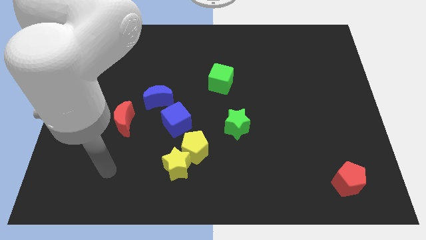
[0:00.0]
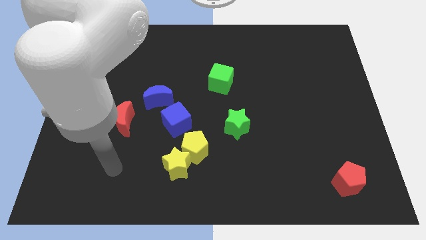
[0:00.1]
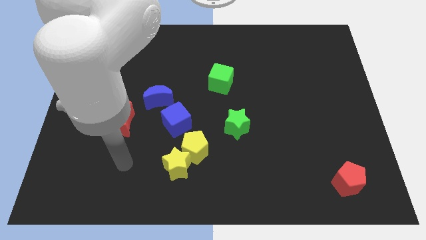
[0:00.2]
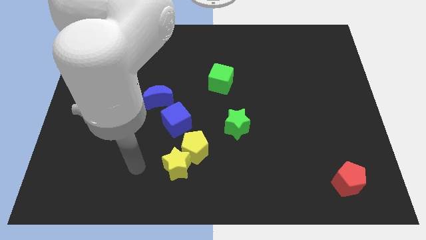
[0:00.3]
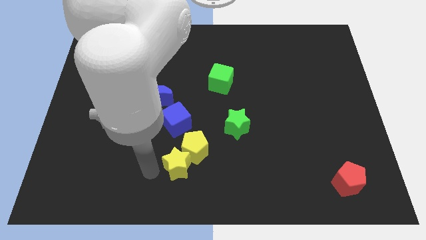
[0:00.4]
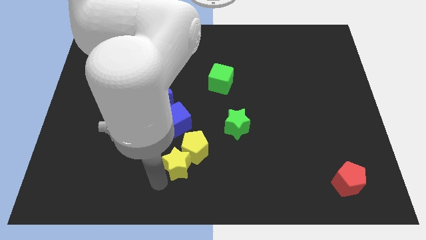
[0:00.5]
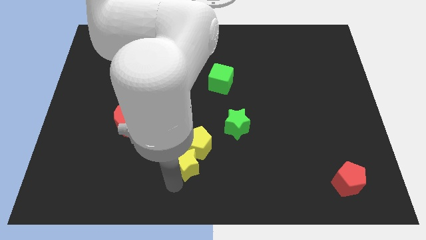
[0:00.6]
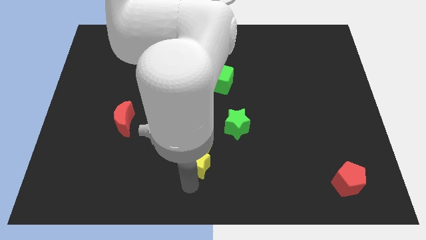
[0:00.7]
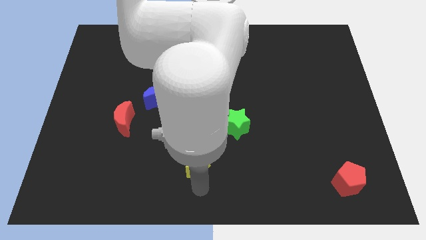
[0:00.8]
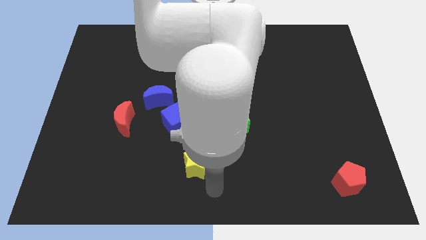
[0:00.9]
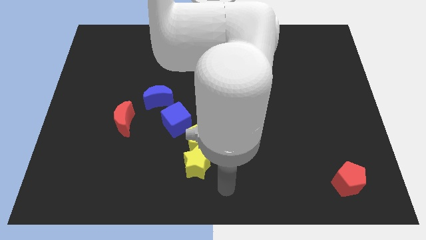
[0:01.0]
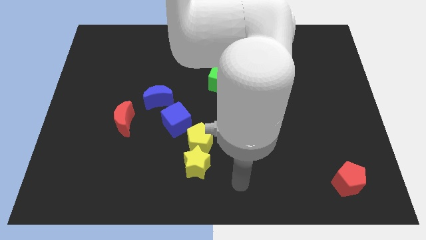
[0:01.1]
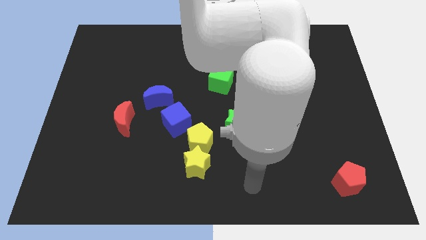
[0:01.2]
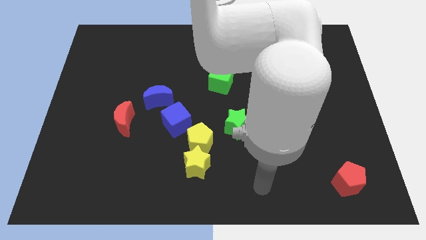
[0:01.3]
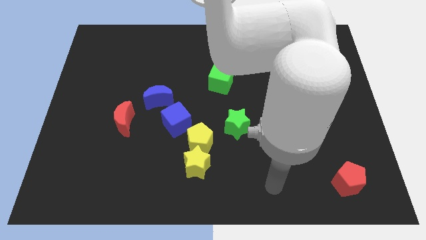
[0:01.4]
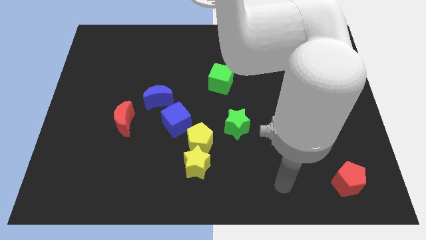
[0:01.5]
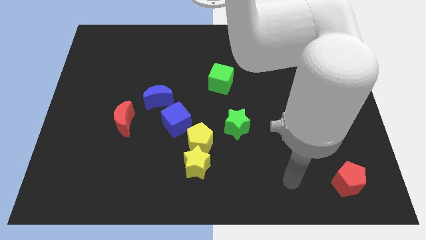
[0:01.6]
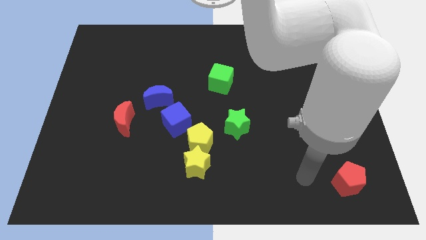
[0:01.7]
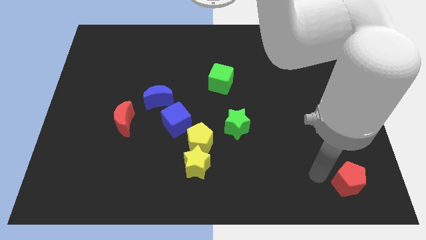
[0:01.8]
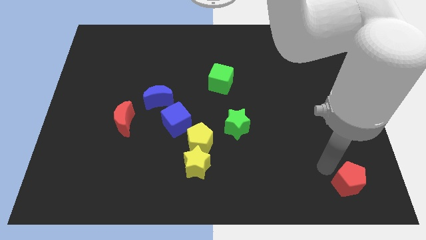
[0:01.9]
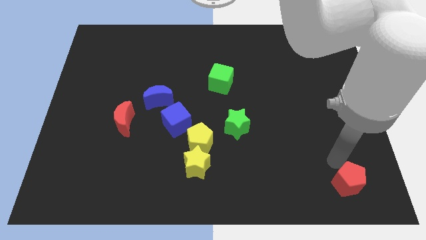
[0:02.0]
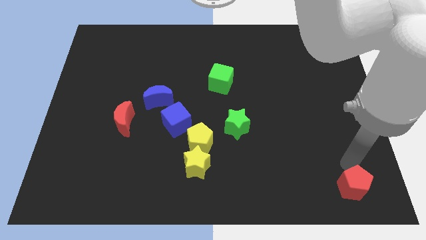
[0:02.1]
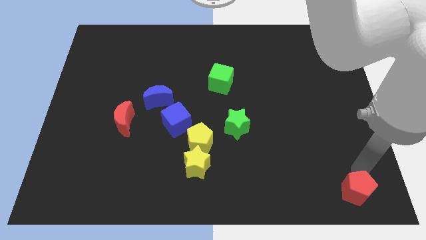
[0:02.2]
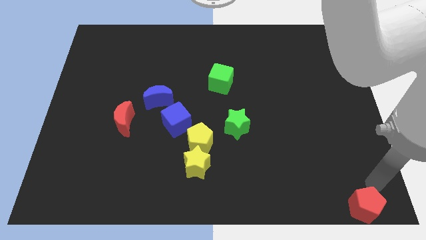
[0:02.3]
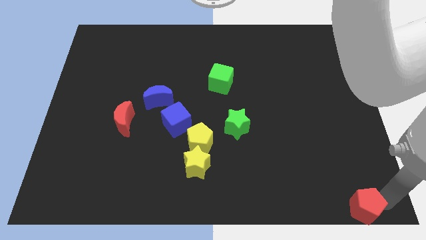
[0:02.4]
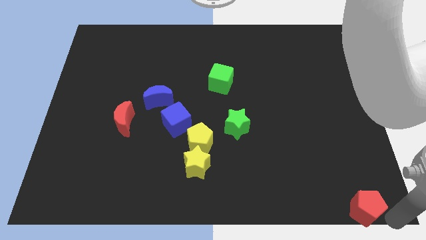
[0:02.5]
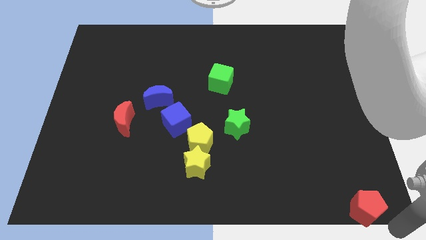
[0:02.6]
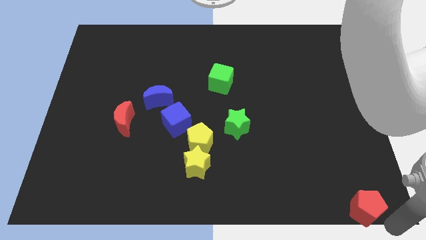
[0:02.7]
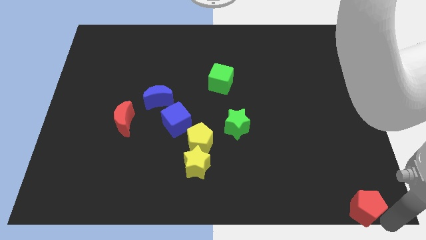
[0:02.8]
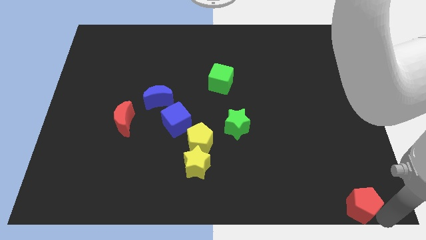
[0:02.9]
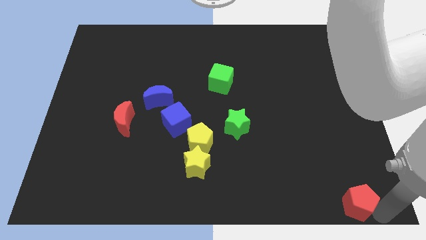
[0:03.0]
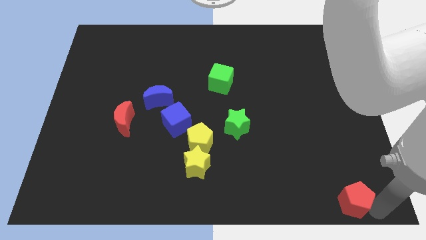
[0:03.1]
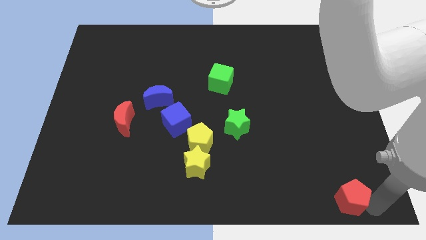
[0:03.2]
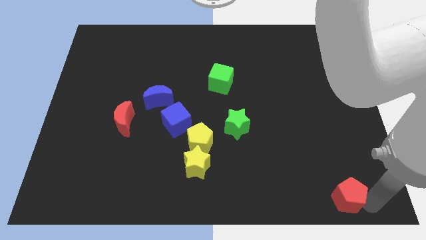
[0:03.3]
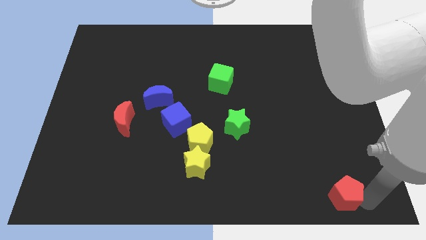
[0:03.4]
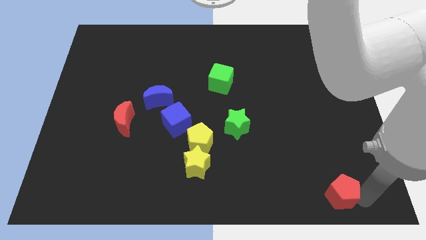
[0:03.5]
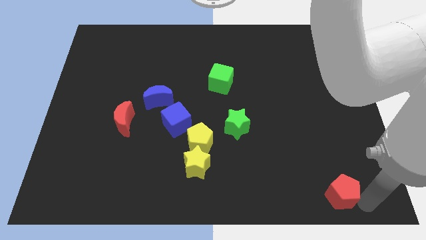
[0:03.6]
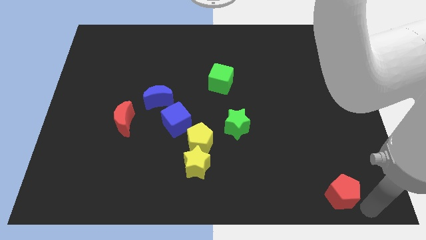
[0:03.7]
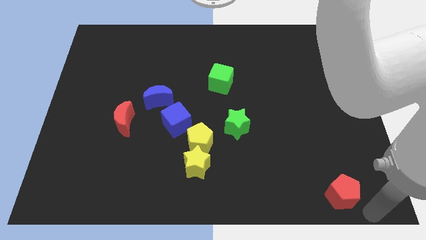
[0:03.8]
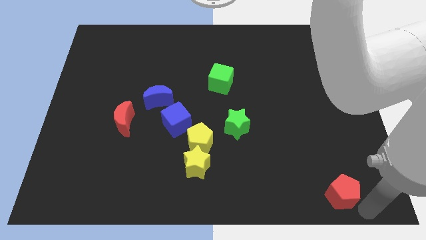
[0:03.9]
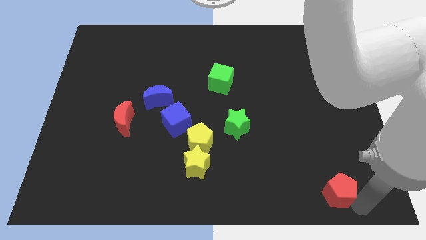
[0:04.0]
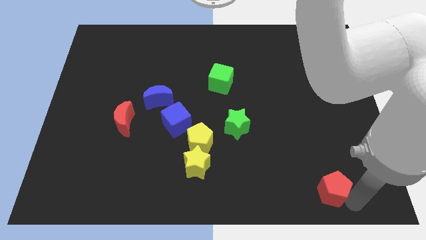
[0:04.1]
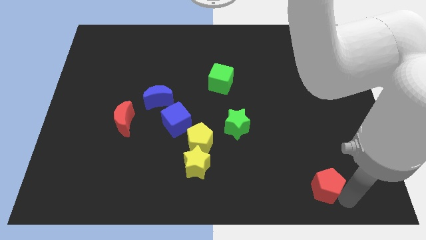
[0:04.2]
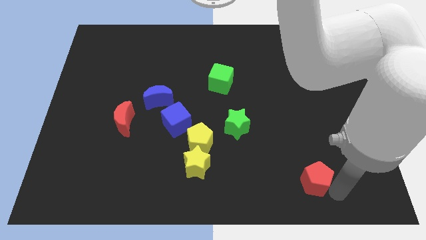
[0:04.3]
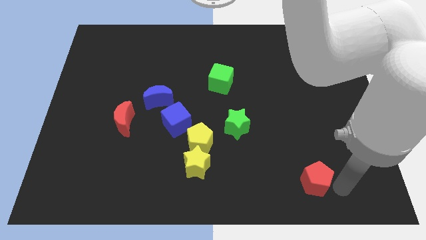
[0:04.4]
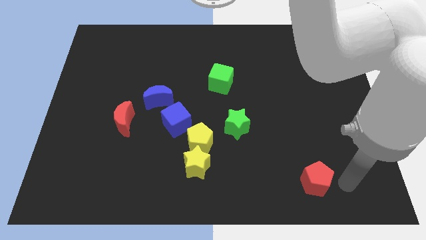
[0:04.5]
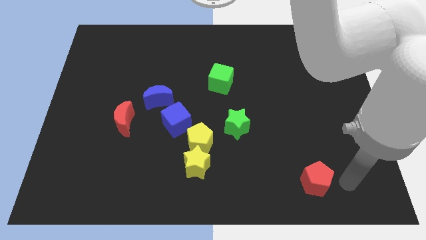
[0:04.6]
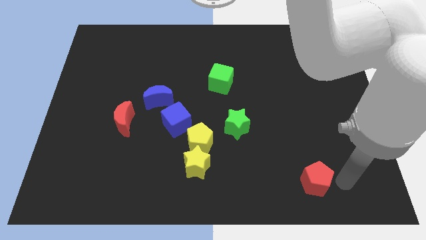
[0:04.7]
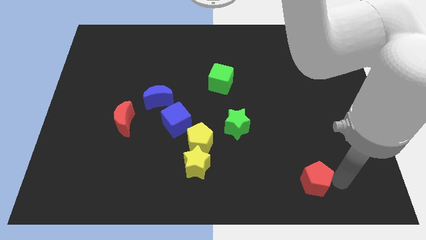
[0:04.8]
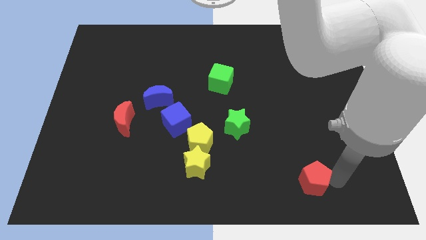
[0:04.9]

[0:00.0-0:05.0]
push the red pentagon a little to the left

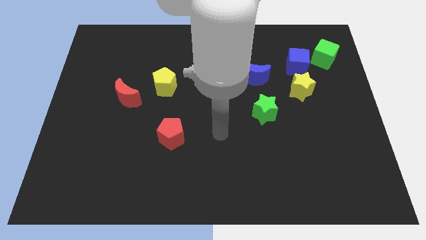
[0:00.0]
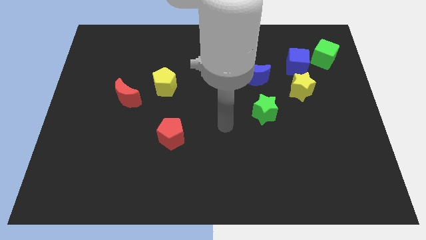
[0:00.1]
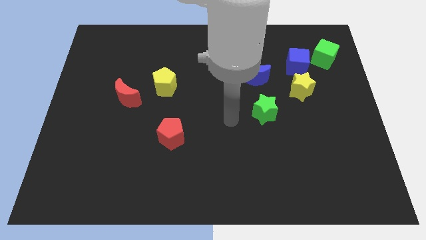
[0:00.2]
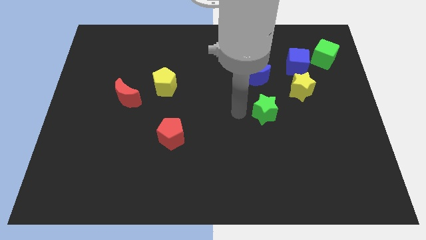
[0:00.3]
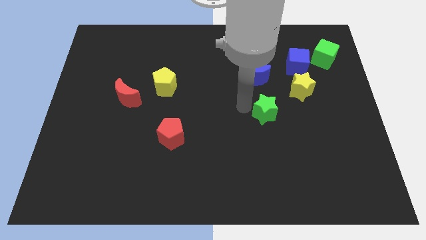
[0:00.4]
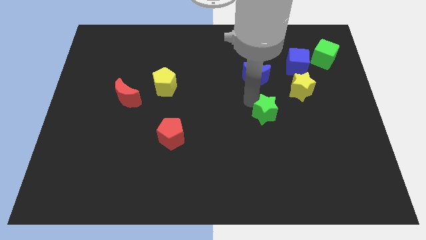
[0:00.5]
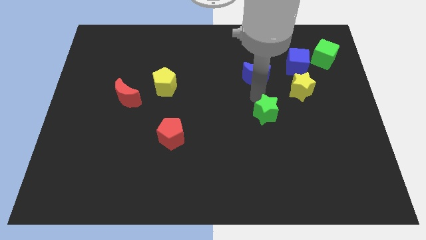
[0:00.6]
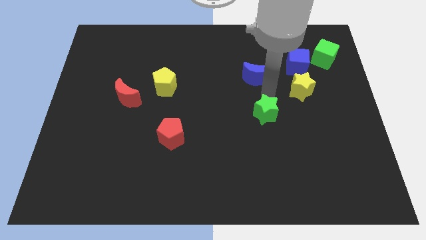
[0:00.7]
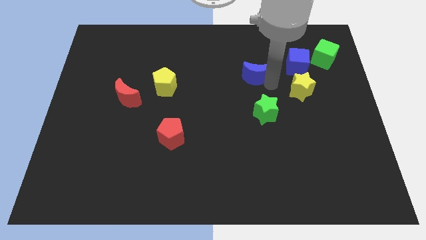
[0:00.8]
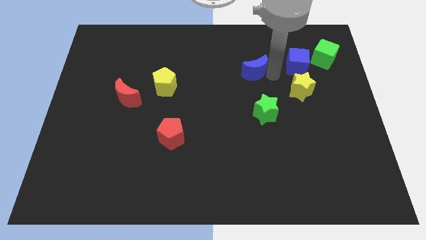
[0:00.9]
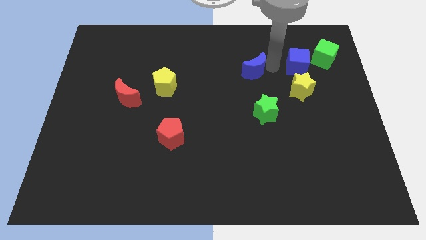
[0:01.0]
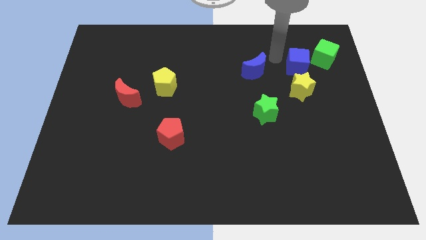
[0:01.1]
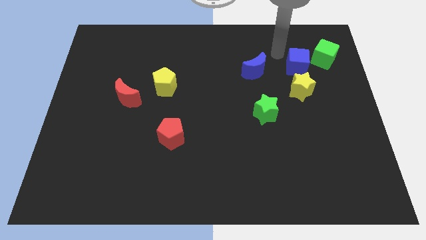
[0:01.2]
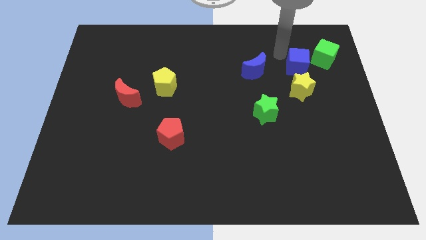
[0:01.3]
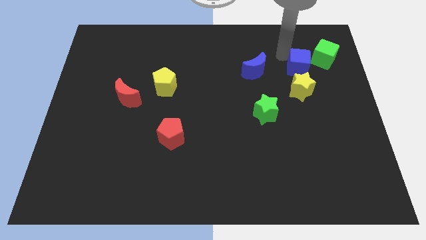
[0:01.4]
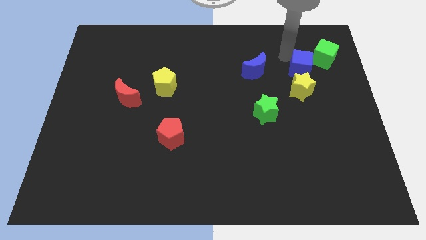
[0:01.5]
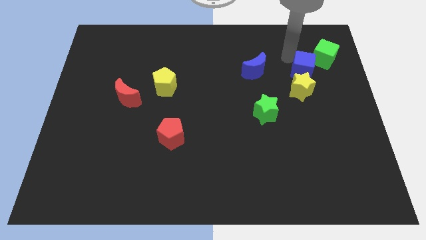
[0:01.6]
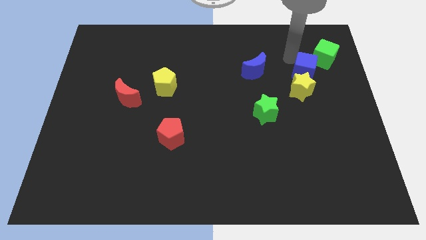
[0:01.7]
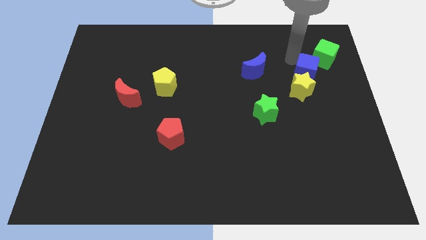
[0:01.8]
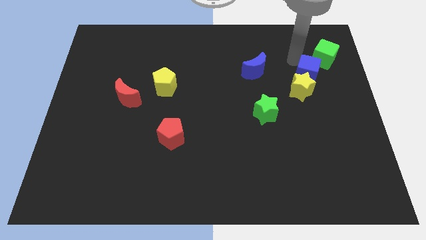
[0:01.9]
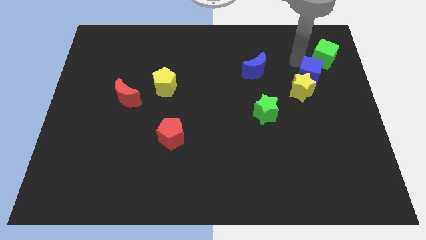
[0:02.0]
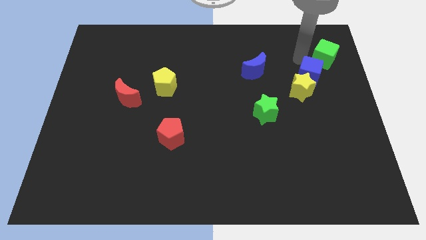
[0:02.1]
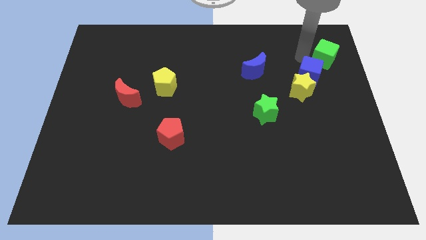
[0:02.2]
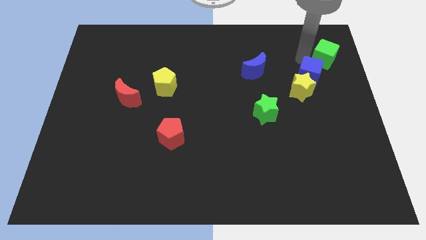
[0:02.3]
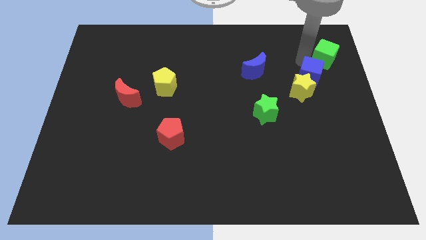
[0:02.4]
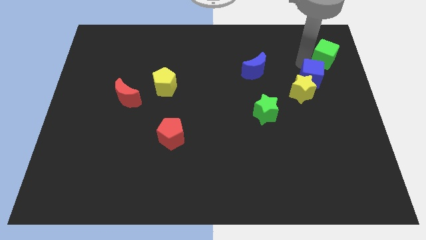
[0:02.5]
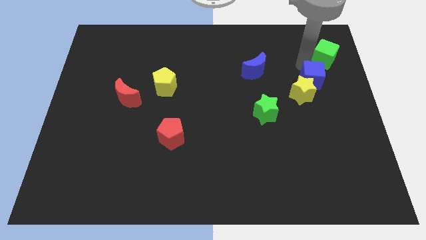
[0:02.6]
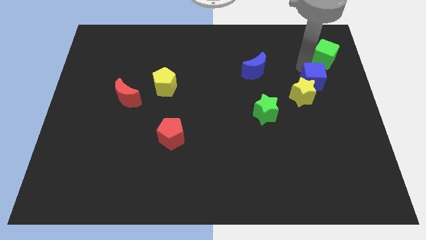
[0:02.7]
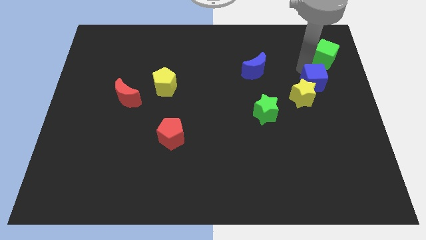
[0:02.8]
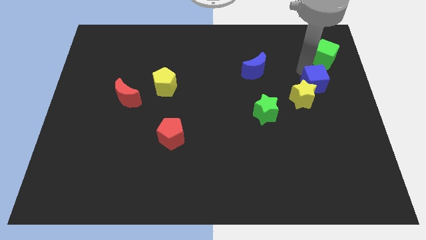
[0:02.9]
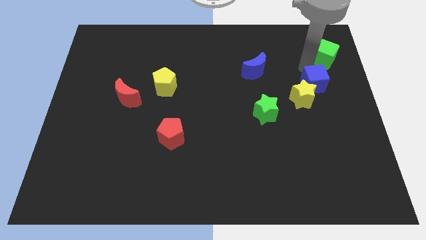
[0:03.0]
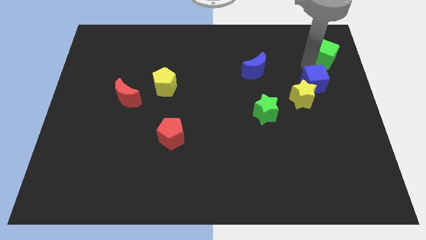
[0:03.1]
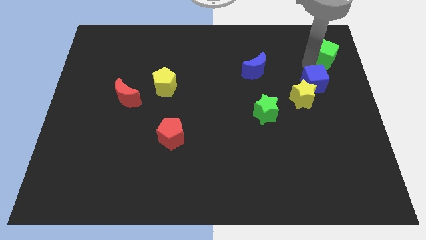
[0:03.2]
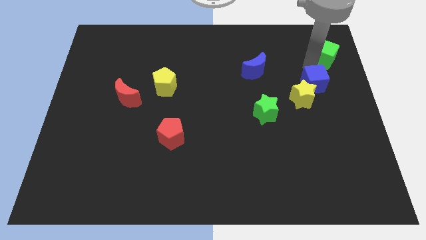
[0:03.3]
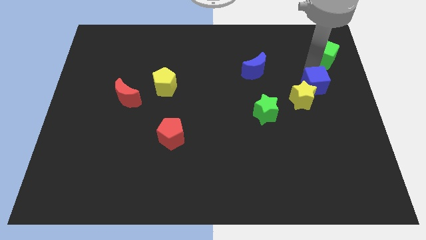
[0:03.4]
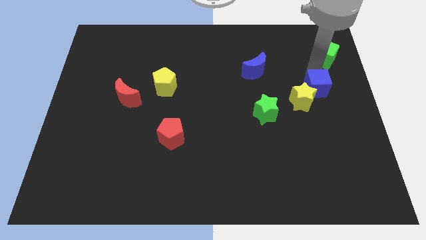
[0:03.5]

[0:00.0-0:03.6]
push the blue cube downwards slightly
